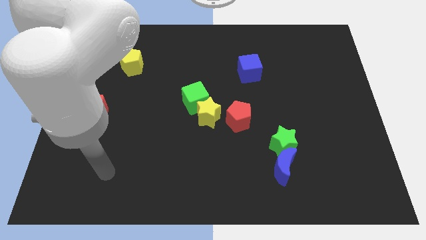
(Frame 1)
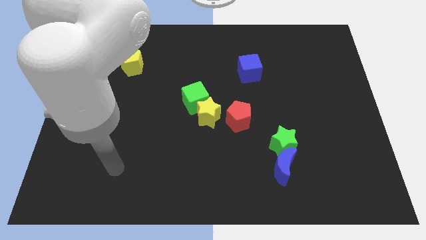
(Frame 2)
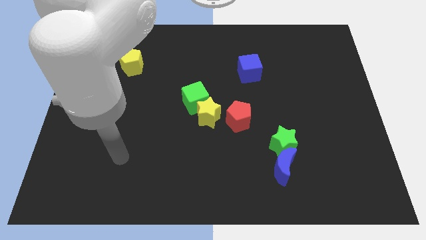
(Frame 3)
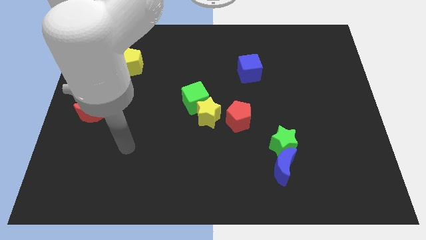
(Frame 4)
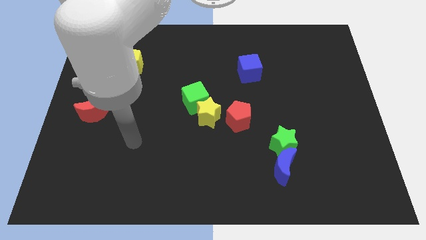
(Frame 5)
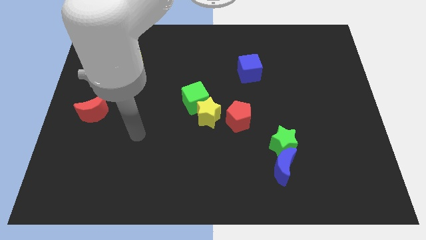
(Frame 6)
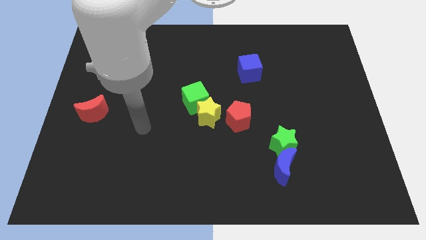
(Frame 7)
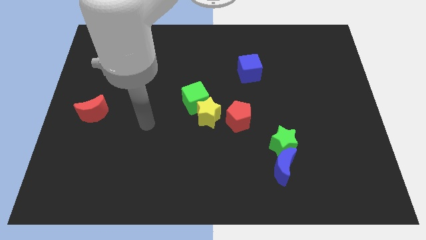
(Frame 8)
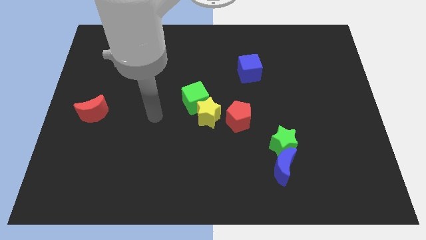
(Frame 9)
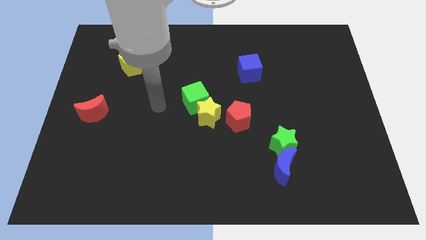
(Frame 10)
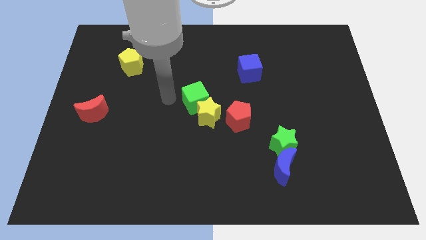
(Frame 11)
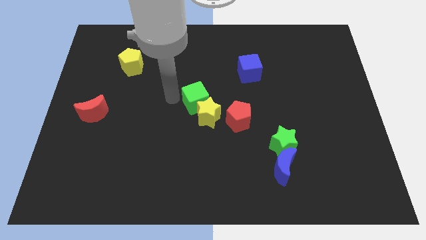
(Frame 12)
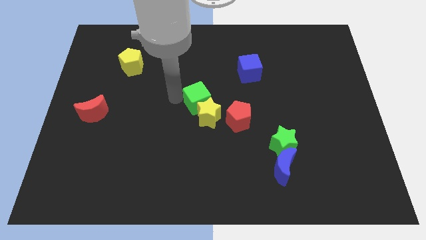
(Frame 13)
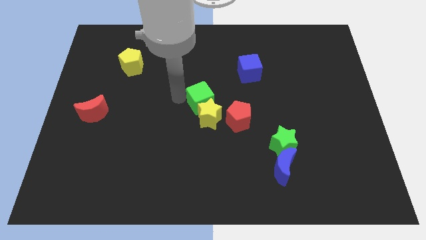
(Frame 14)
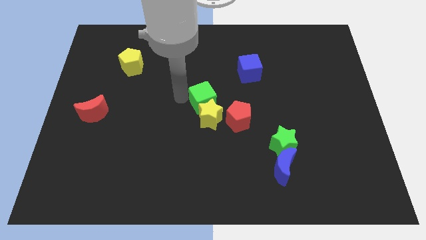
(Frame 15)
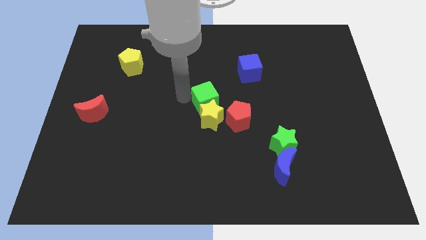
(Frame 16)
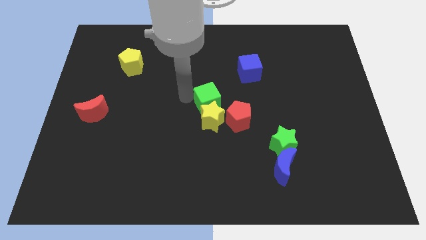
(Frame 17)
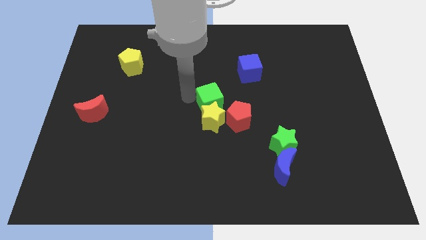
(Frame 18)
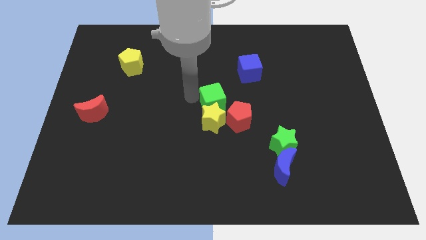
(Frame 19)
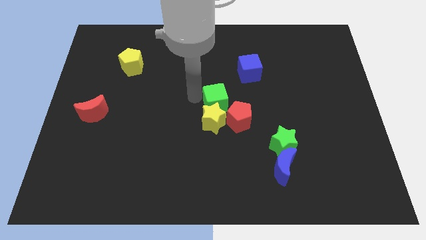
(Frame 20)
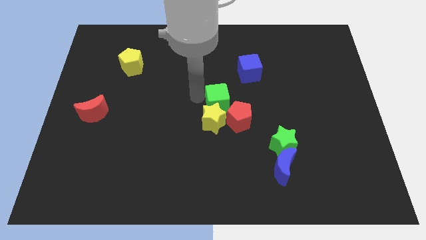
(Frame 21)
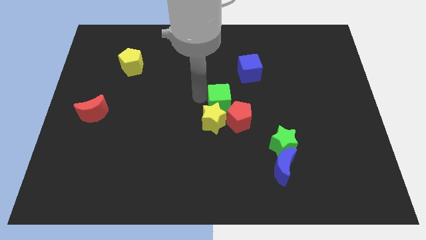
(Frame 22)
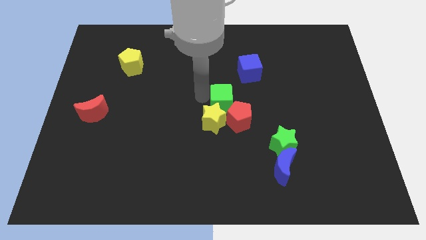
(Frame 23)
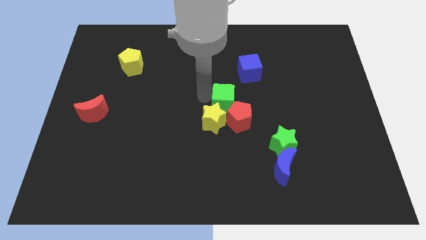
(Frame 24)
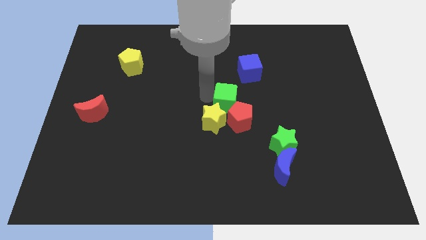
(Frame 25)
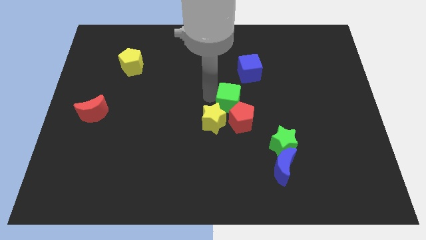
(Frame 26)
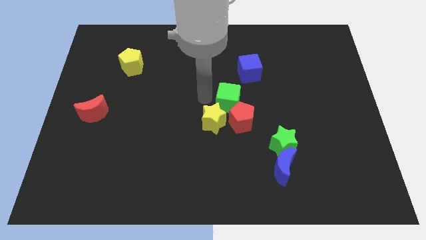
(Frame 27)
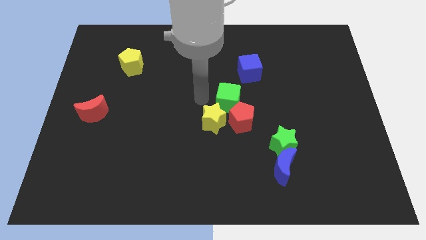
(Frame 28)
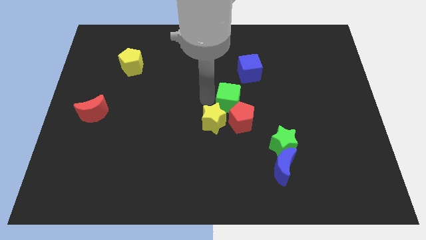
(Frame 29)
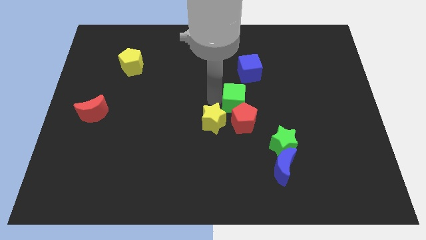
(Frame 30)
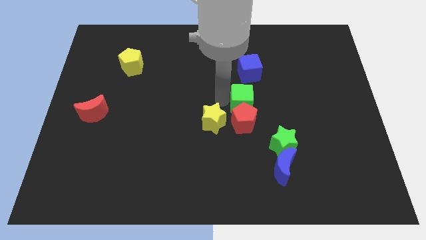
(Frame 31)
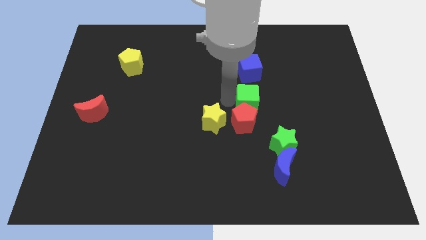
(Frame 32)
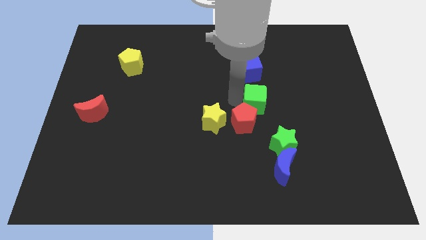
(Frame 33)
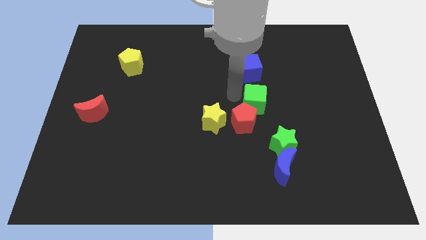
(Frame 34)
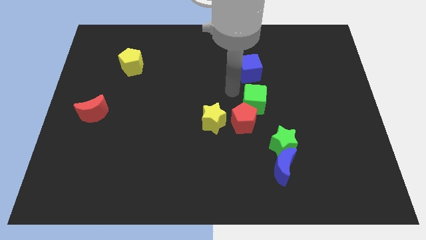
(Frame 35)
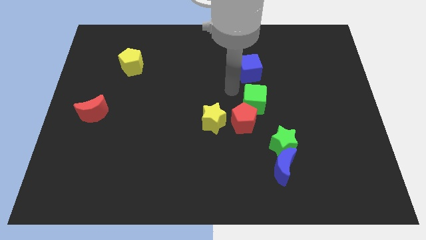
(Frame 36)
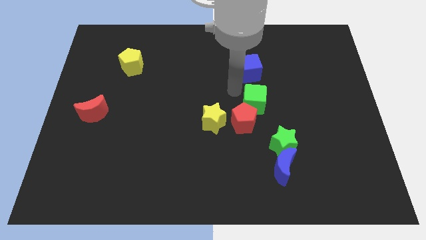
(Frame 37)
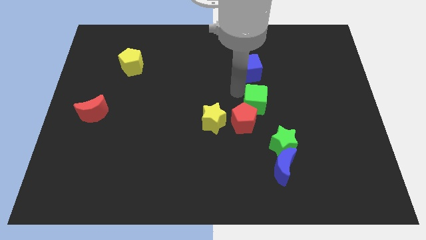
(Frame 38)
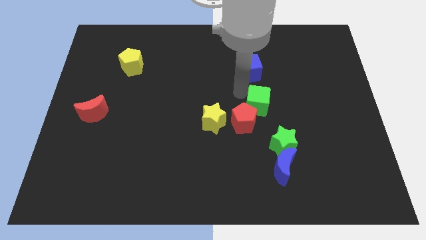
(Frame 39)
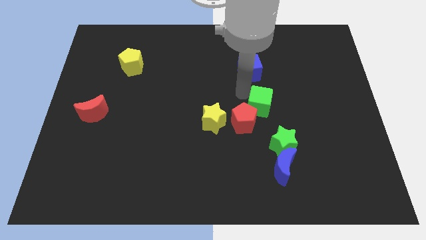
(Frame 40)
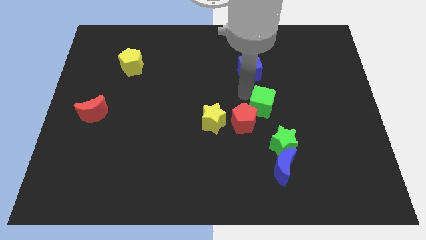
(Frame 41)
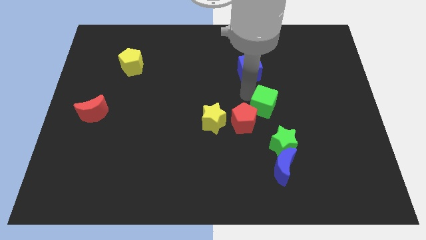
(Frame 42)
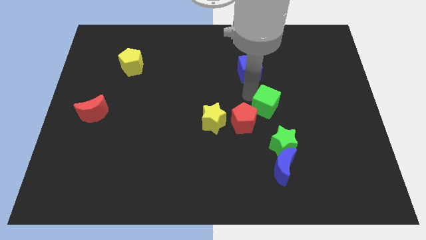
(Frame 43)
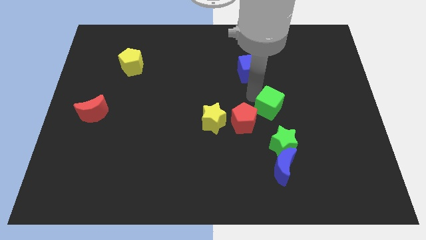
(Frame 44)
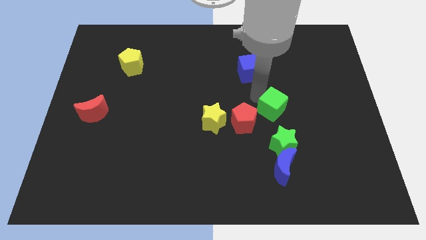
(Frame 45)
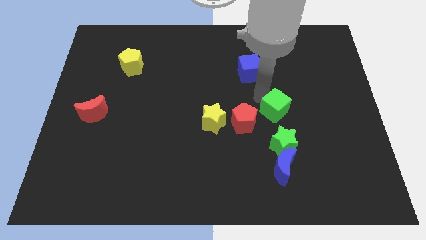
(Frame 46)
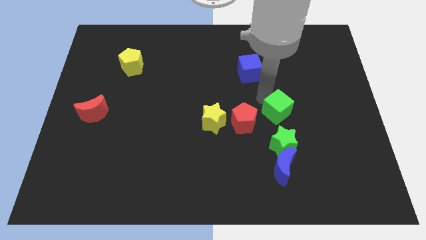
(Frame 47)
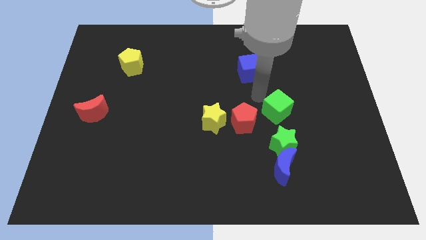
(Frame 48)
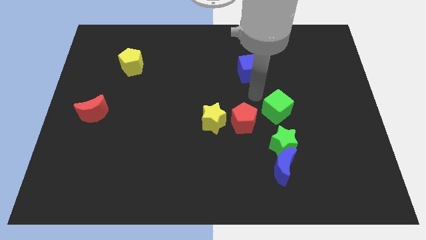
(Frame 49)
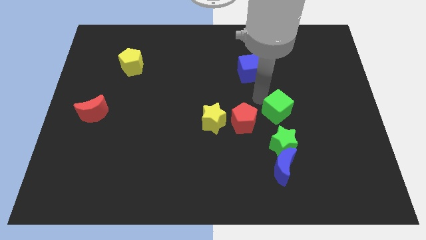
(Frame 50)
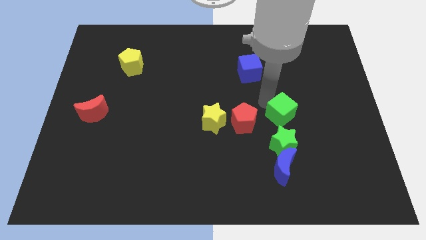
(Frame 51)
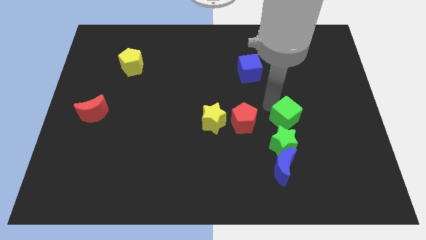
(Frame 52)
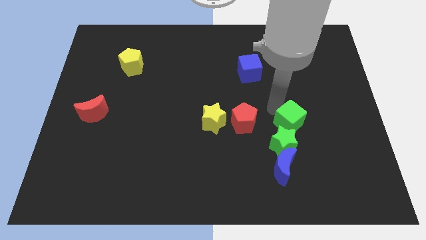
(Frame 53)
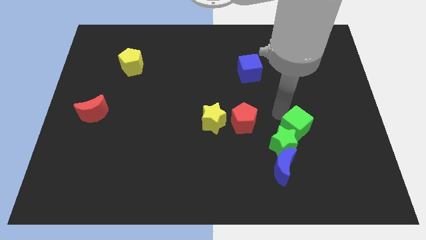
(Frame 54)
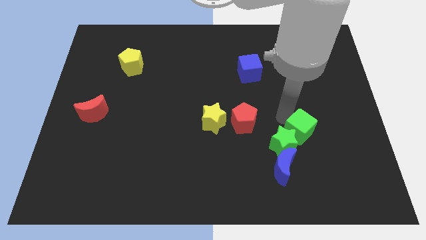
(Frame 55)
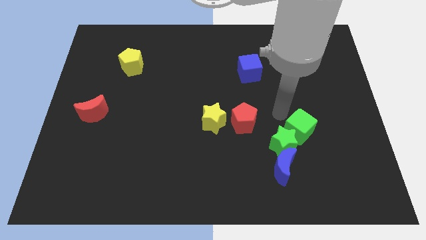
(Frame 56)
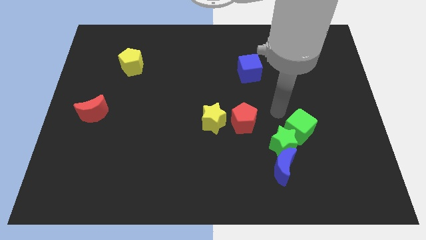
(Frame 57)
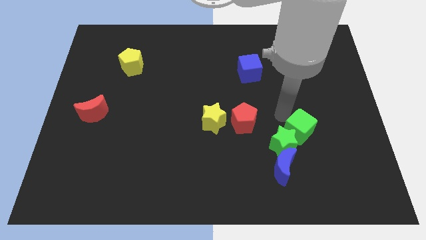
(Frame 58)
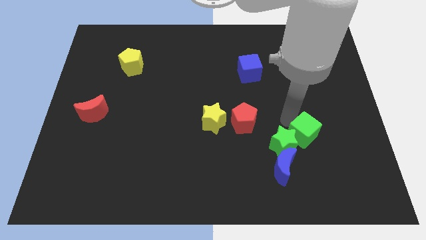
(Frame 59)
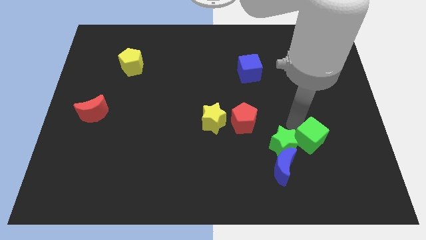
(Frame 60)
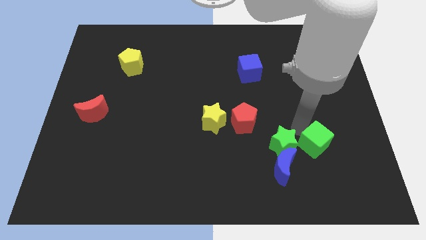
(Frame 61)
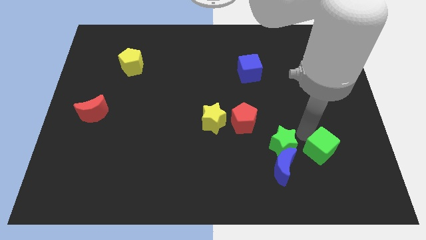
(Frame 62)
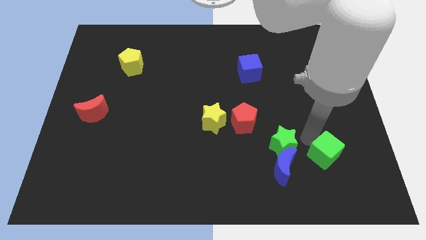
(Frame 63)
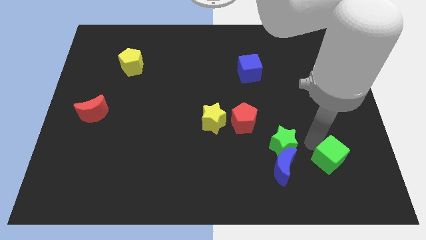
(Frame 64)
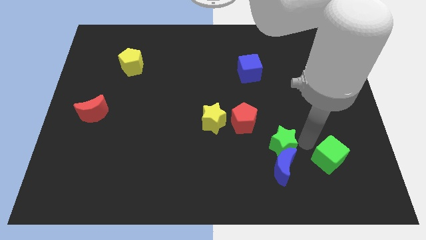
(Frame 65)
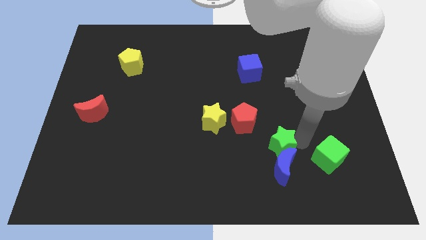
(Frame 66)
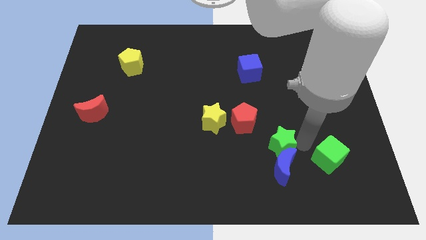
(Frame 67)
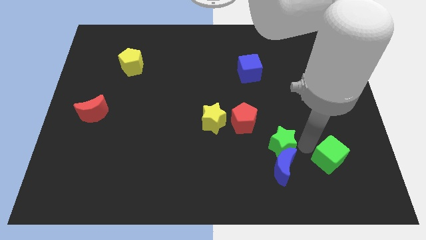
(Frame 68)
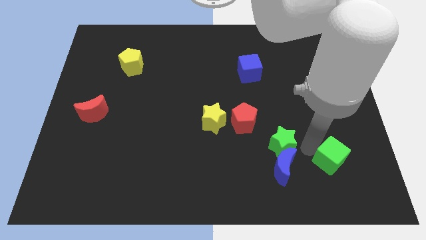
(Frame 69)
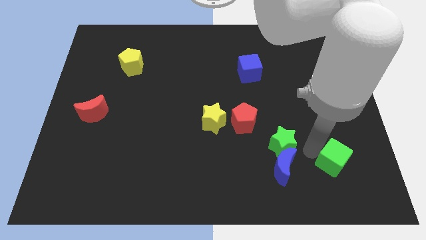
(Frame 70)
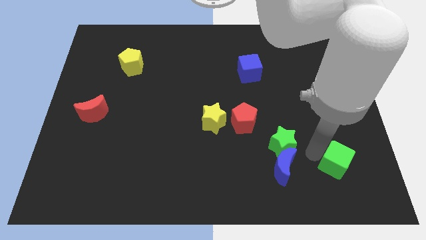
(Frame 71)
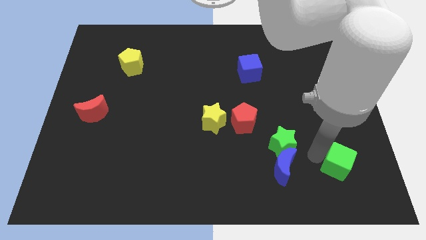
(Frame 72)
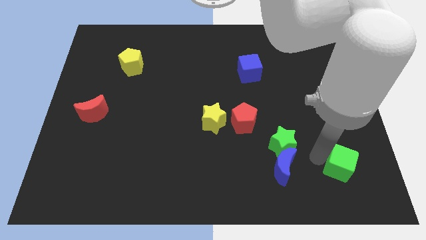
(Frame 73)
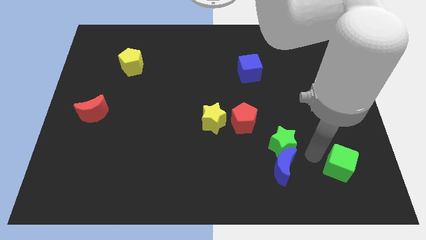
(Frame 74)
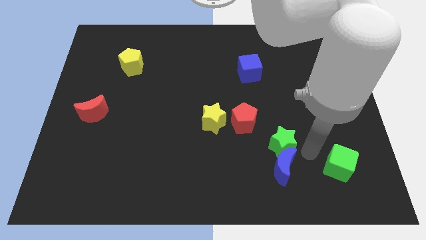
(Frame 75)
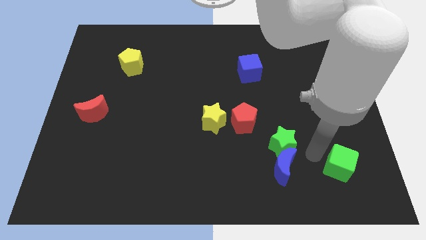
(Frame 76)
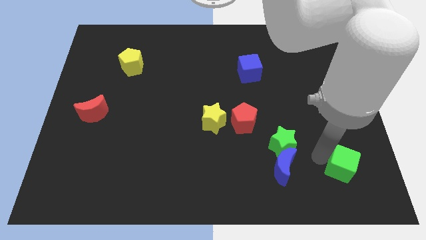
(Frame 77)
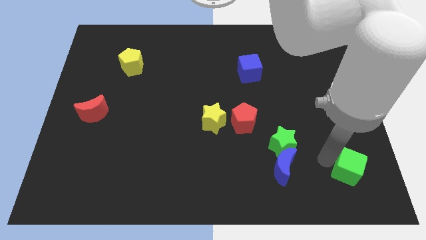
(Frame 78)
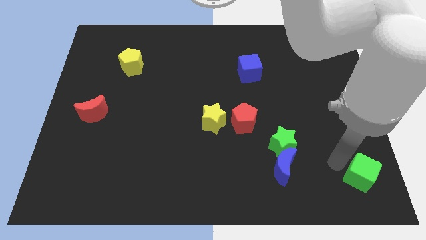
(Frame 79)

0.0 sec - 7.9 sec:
slide the green cube to the bottom right
